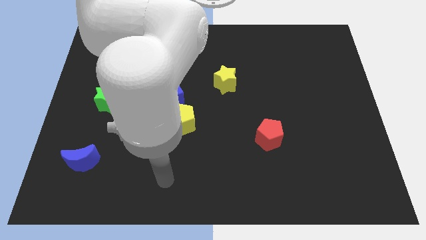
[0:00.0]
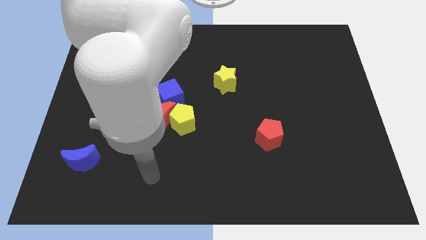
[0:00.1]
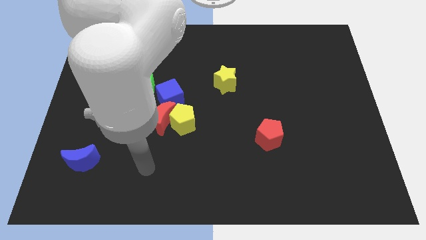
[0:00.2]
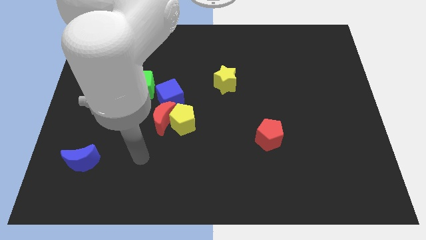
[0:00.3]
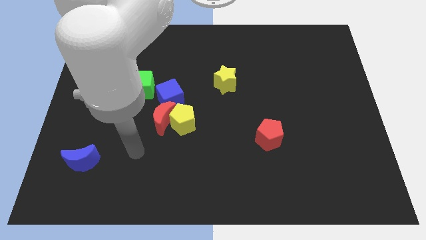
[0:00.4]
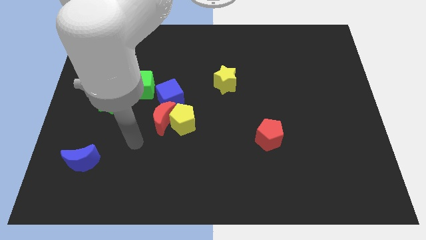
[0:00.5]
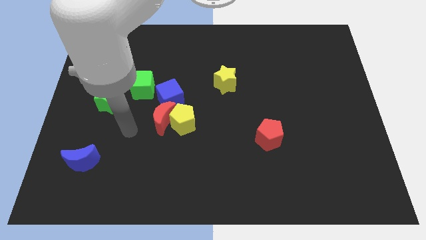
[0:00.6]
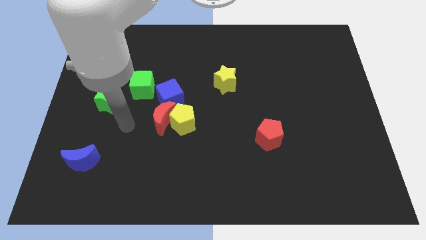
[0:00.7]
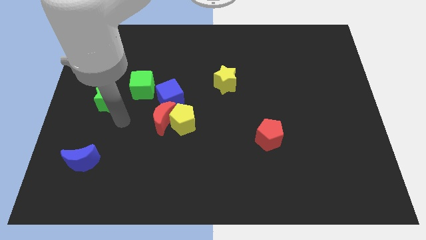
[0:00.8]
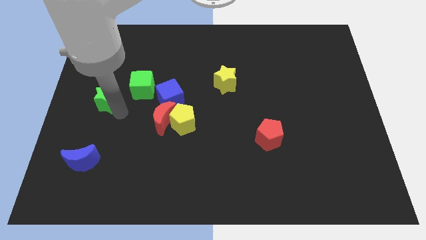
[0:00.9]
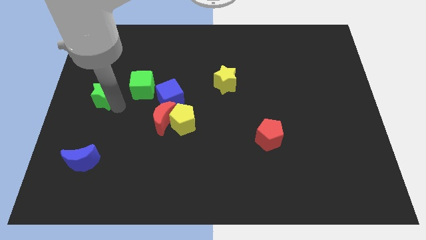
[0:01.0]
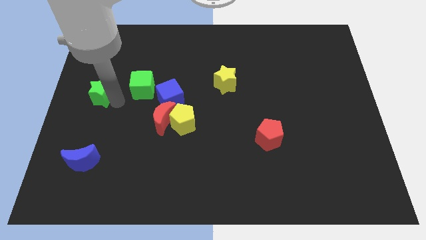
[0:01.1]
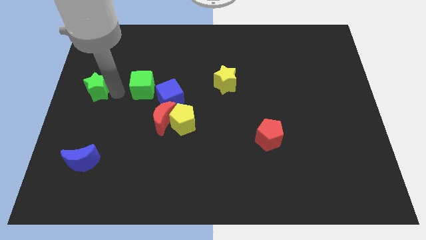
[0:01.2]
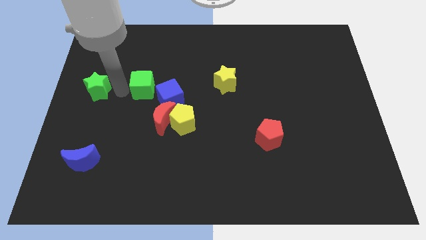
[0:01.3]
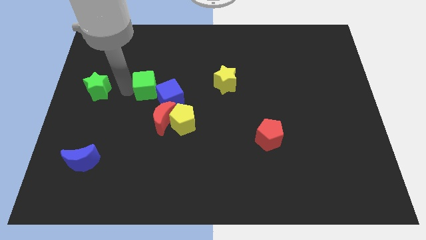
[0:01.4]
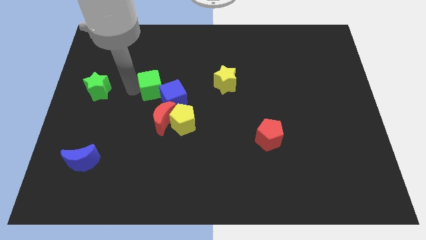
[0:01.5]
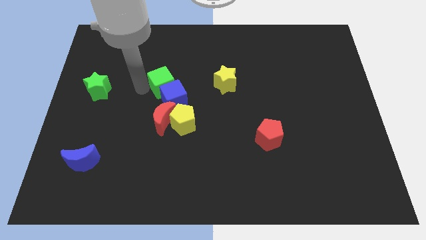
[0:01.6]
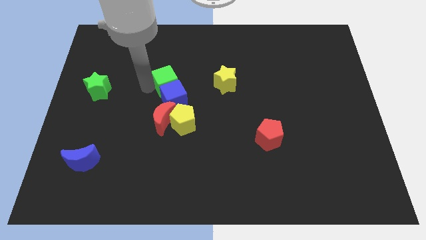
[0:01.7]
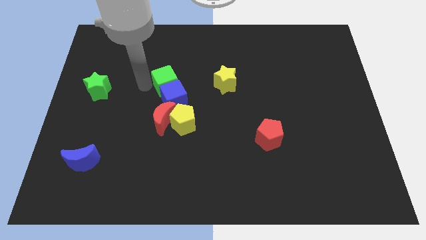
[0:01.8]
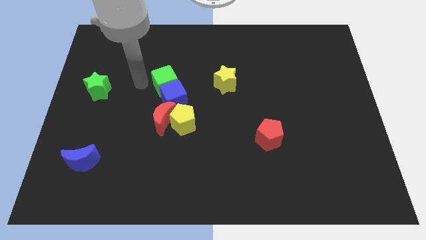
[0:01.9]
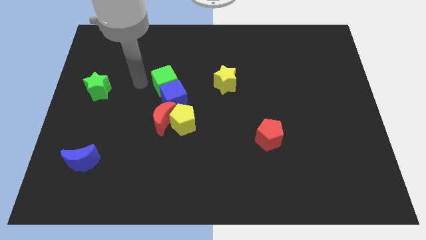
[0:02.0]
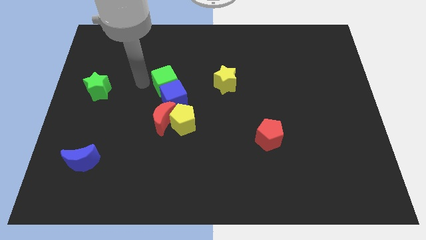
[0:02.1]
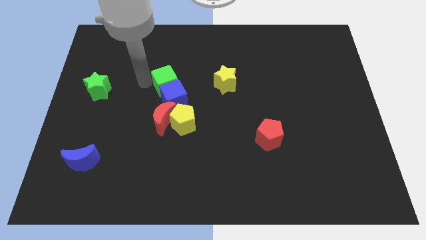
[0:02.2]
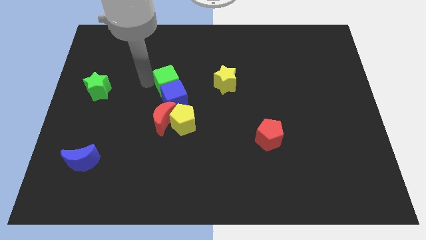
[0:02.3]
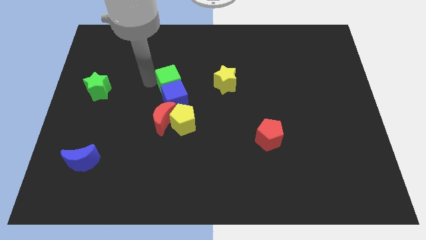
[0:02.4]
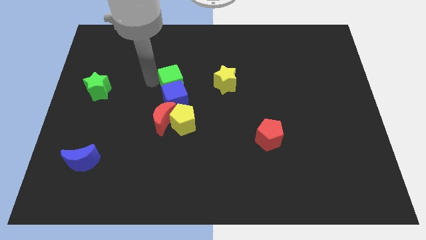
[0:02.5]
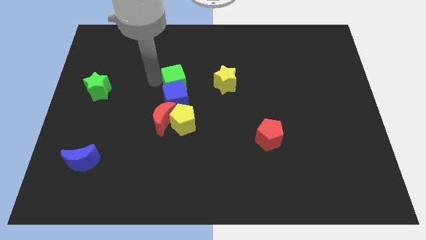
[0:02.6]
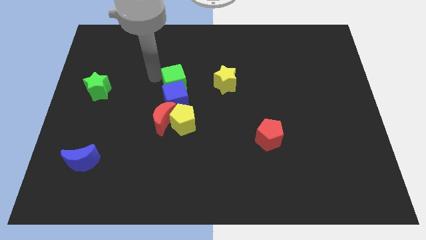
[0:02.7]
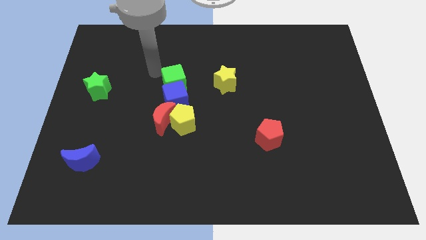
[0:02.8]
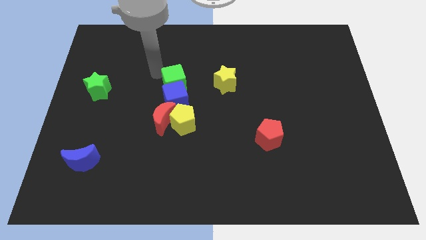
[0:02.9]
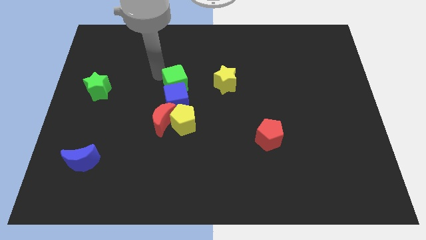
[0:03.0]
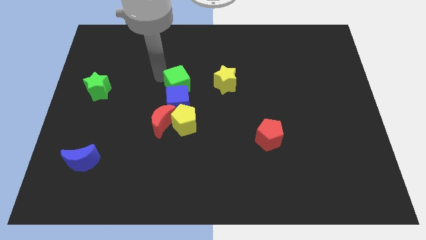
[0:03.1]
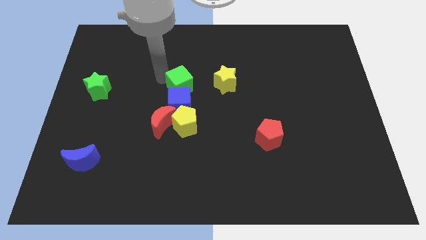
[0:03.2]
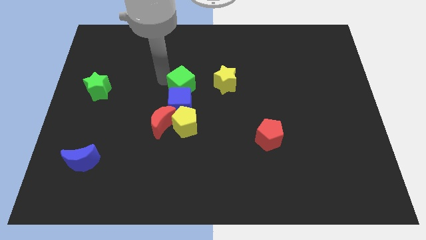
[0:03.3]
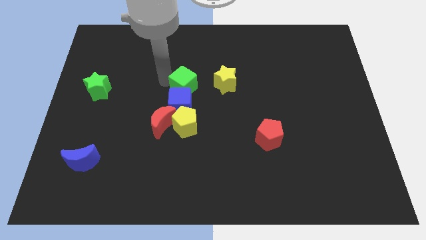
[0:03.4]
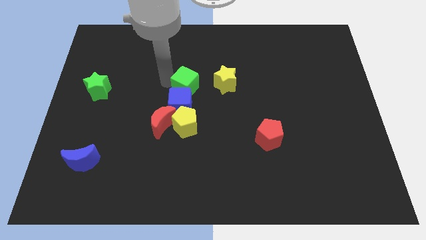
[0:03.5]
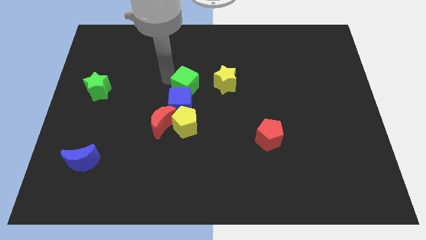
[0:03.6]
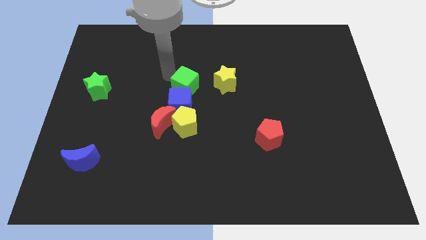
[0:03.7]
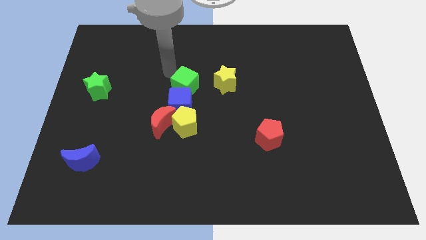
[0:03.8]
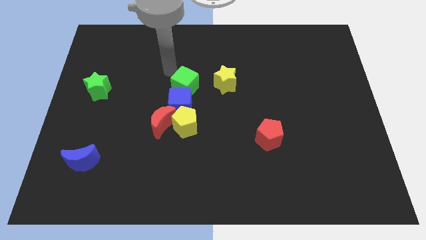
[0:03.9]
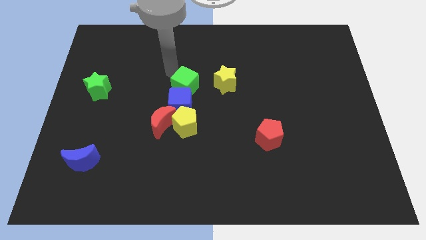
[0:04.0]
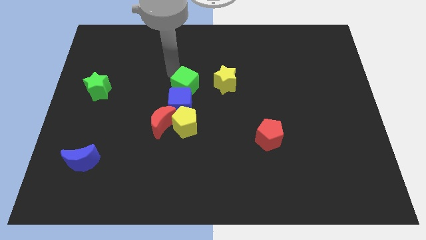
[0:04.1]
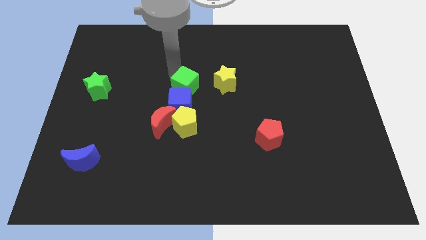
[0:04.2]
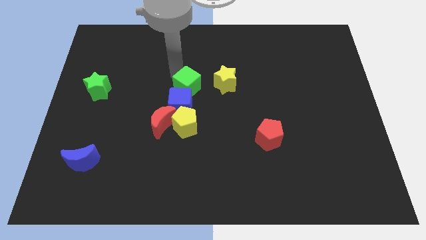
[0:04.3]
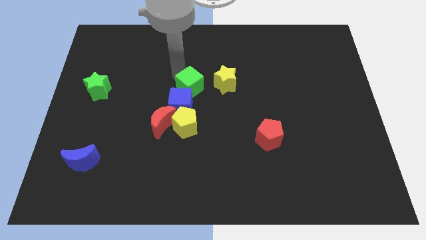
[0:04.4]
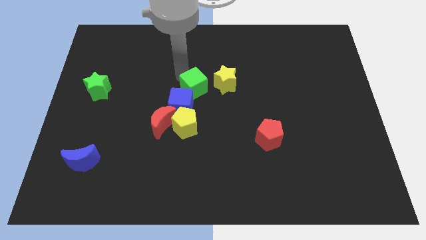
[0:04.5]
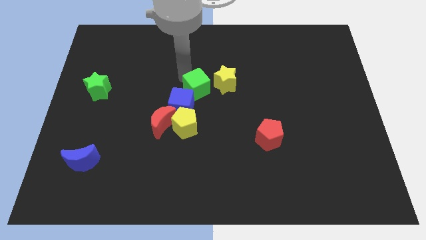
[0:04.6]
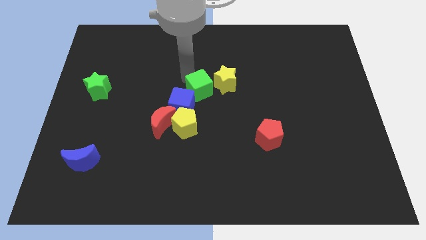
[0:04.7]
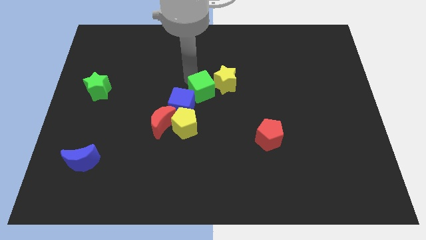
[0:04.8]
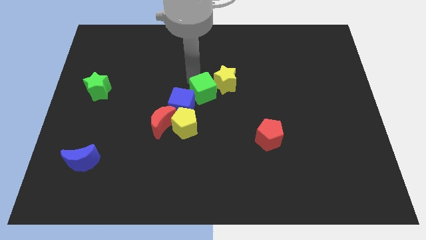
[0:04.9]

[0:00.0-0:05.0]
push the green cube to the top right of the yellow pentagon

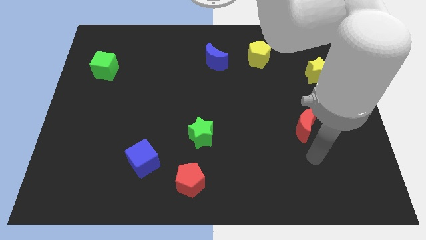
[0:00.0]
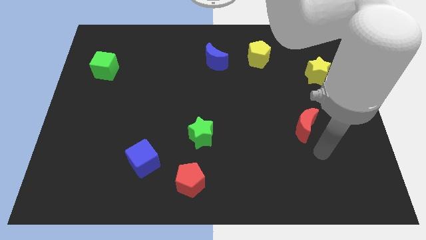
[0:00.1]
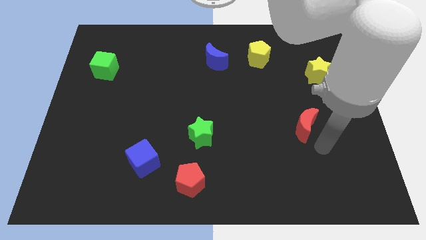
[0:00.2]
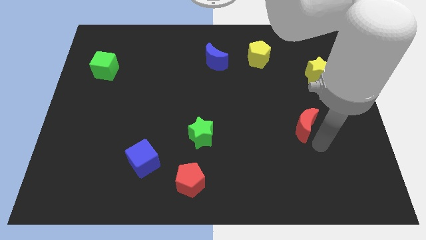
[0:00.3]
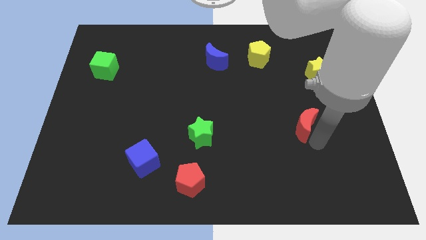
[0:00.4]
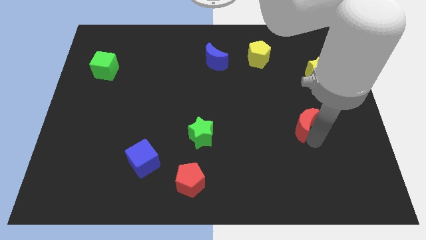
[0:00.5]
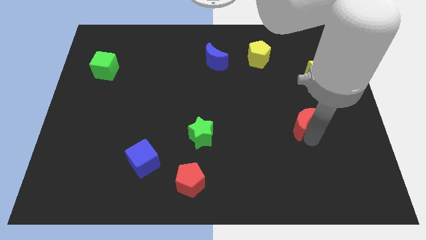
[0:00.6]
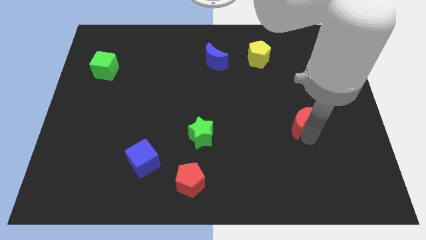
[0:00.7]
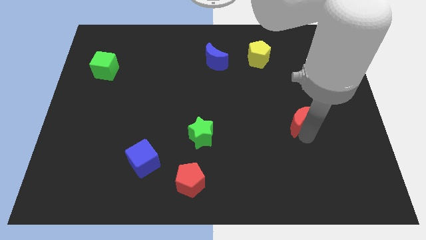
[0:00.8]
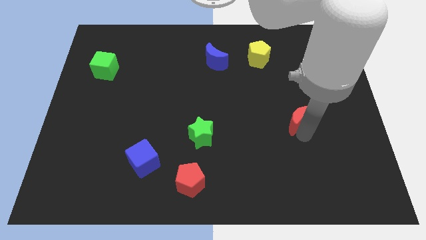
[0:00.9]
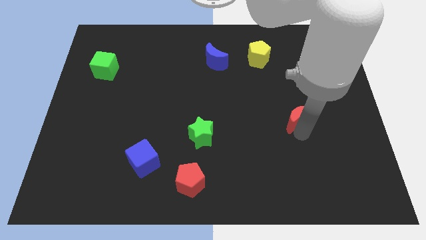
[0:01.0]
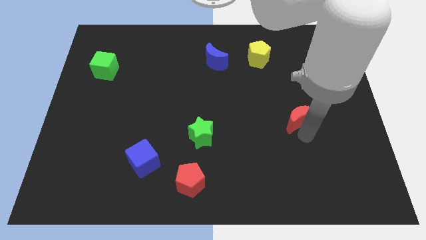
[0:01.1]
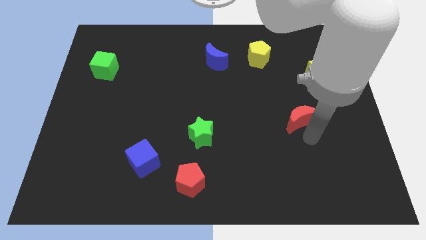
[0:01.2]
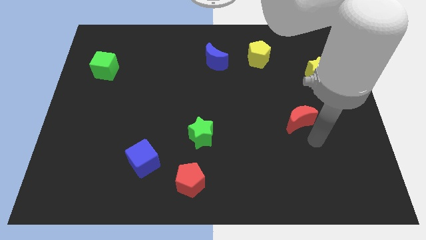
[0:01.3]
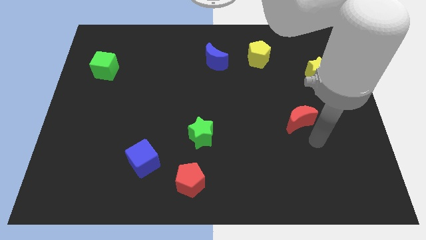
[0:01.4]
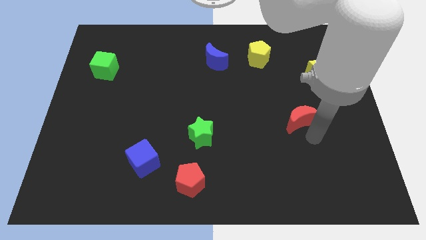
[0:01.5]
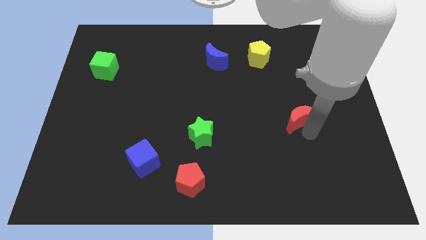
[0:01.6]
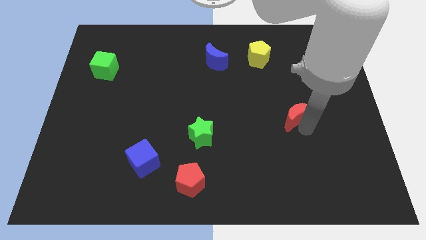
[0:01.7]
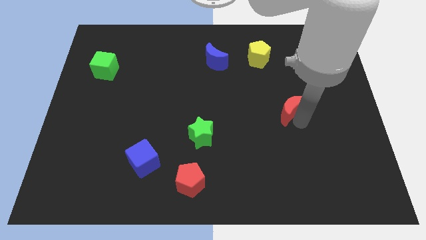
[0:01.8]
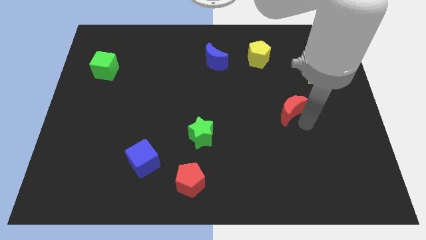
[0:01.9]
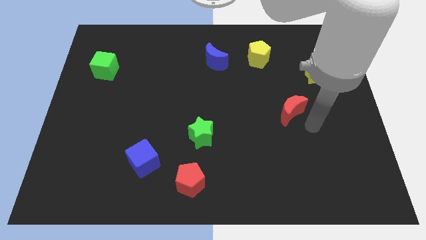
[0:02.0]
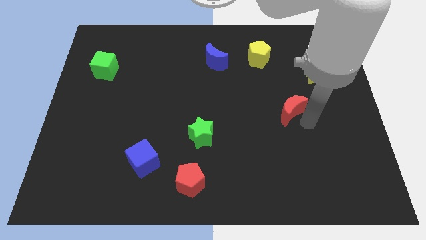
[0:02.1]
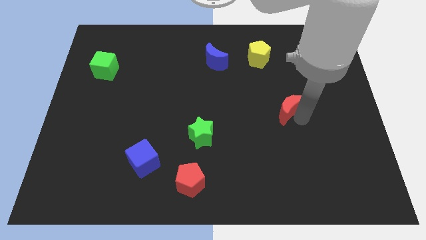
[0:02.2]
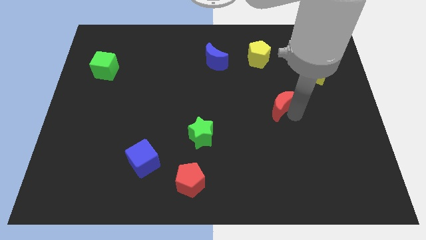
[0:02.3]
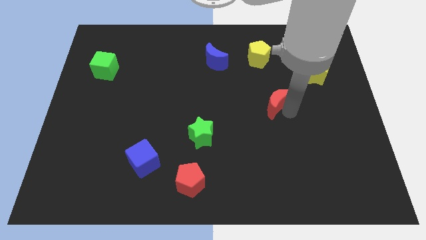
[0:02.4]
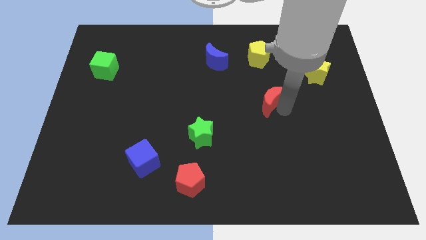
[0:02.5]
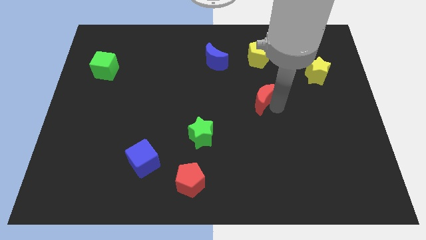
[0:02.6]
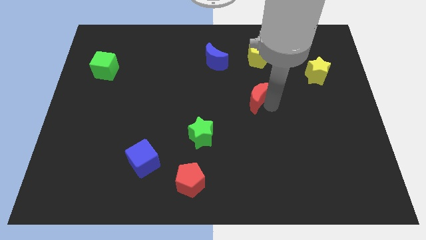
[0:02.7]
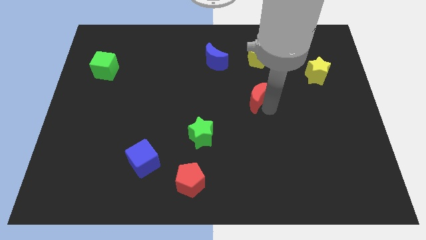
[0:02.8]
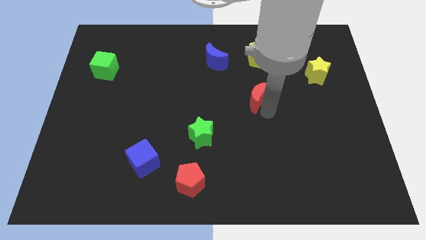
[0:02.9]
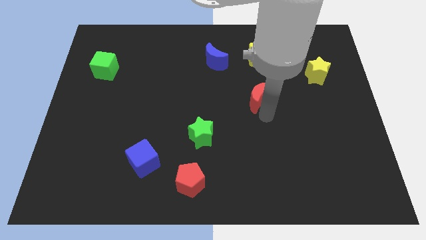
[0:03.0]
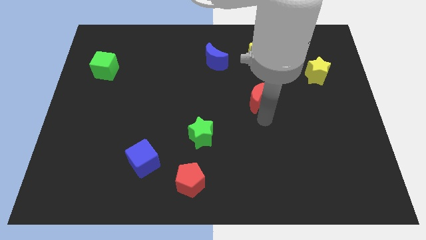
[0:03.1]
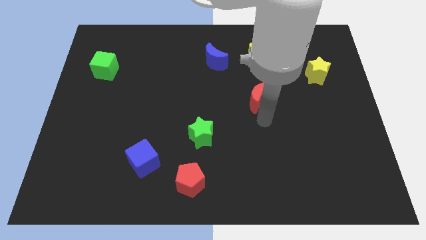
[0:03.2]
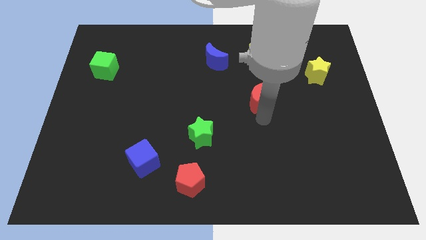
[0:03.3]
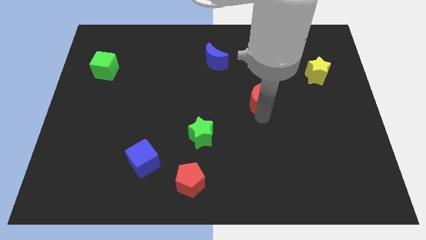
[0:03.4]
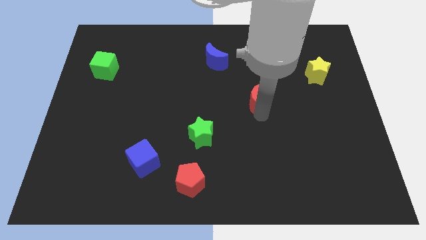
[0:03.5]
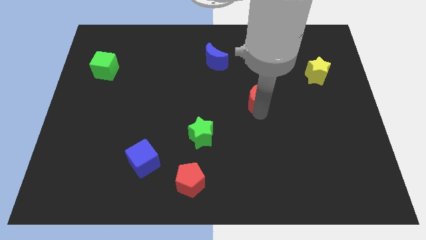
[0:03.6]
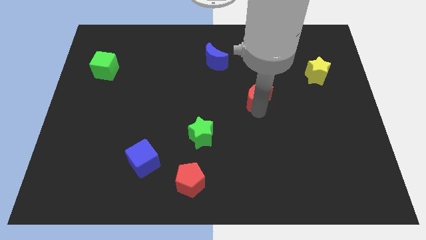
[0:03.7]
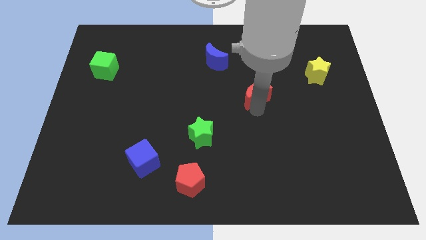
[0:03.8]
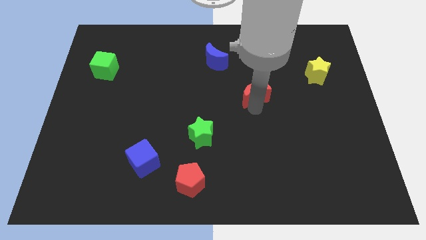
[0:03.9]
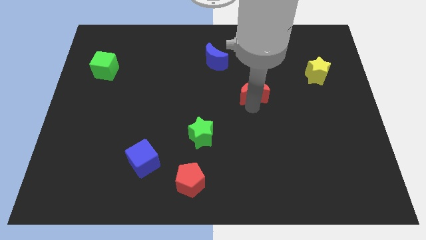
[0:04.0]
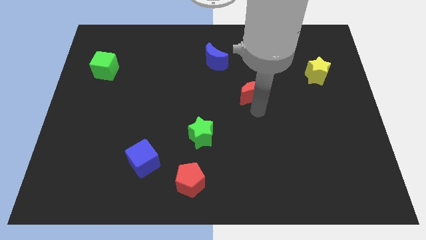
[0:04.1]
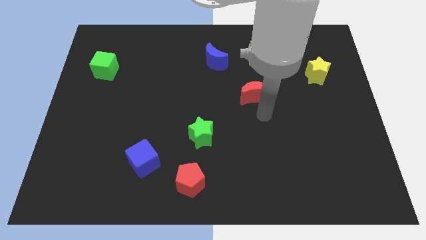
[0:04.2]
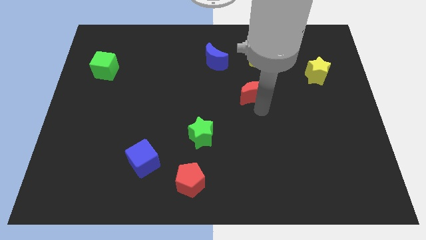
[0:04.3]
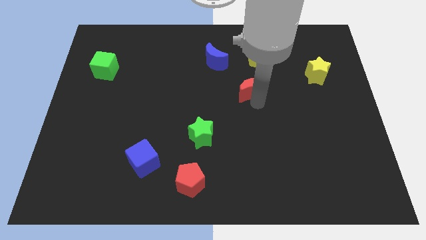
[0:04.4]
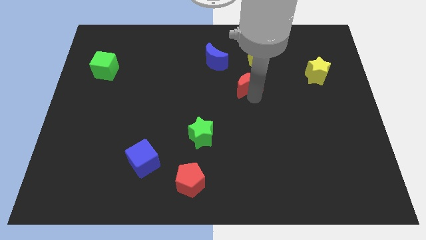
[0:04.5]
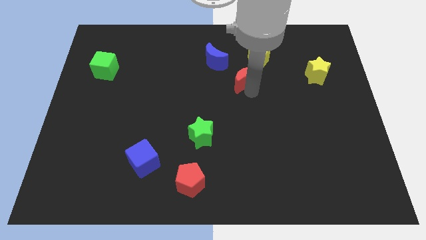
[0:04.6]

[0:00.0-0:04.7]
push the red moon diagonally down and to the left of the yellow pentagon
